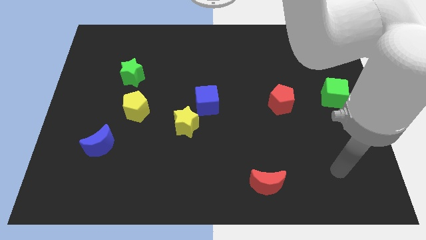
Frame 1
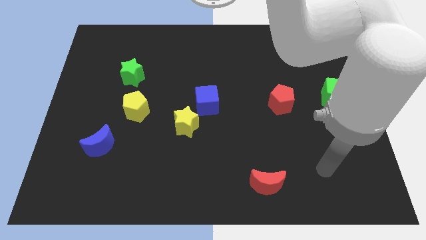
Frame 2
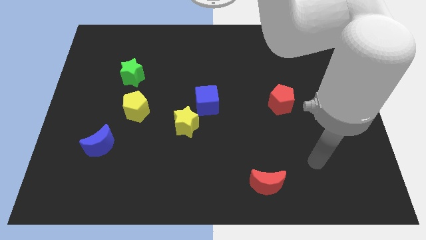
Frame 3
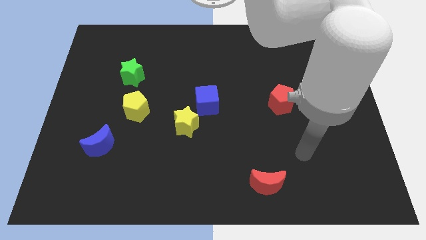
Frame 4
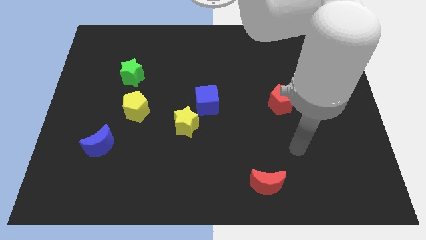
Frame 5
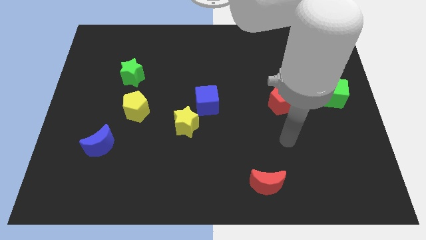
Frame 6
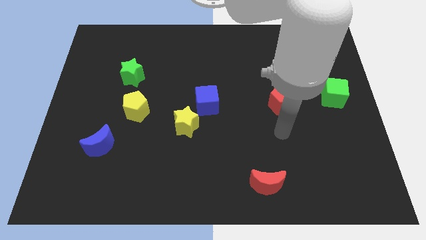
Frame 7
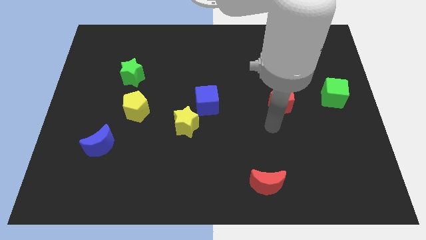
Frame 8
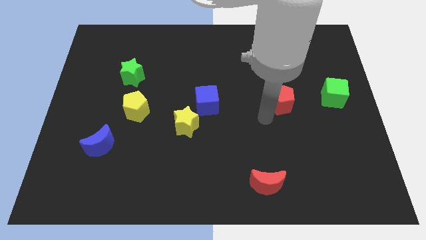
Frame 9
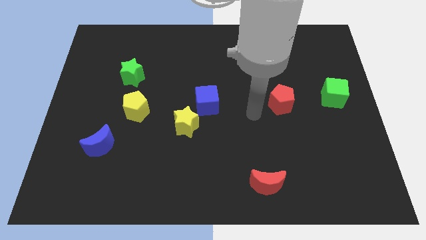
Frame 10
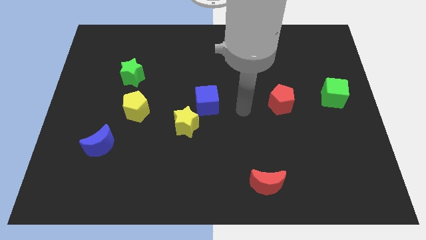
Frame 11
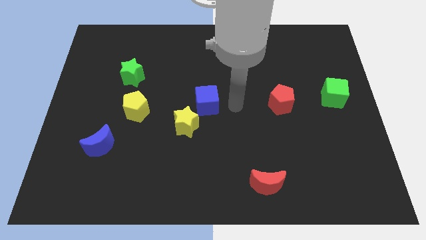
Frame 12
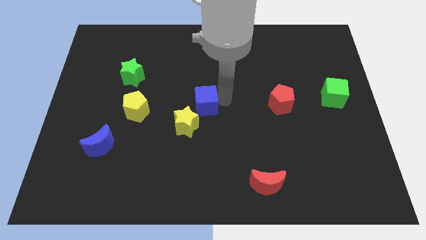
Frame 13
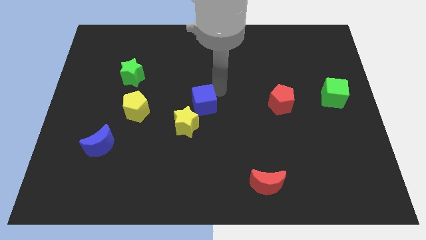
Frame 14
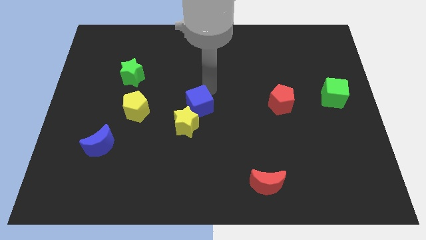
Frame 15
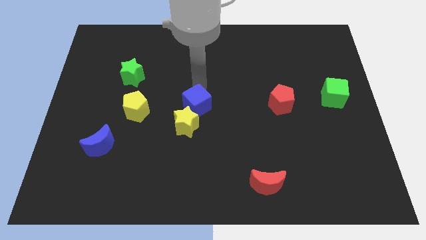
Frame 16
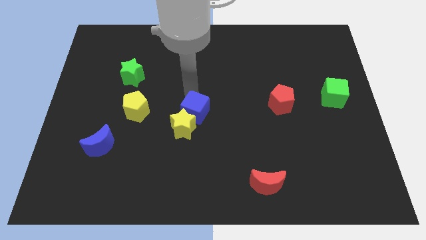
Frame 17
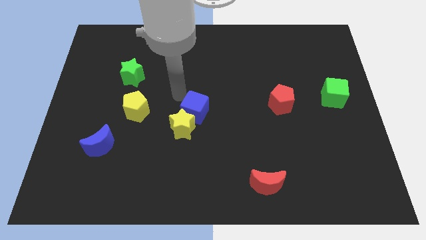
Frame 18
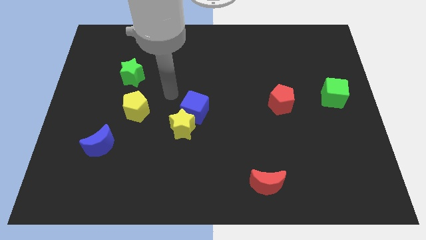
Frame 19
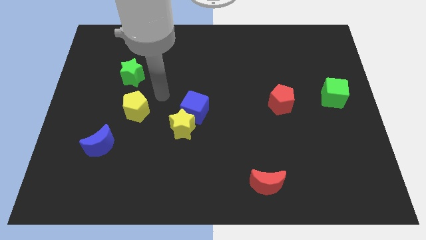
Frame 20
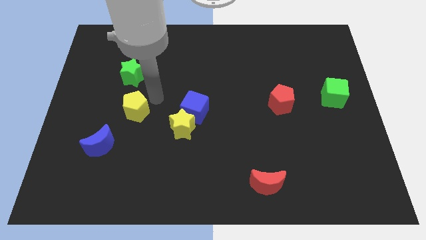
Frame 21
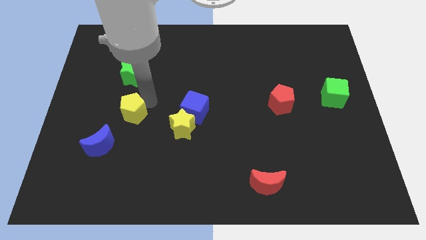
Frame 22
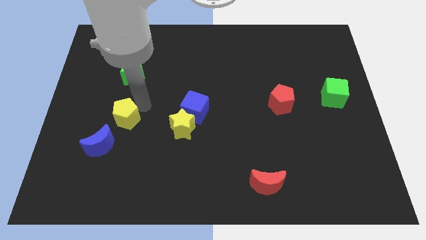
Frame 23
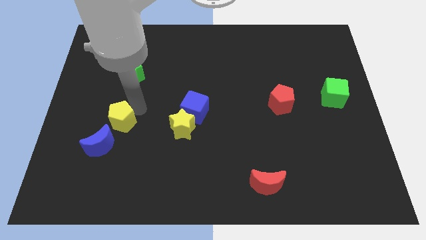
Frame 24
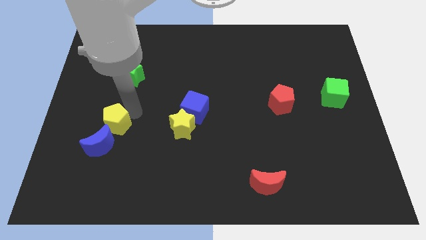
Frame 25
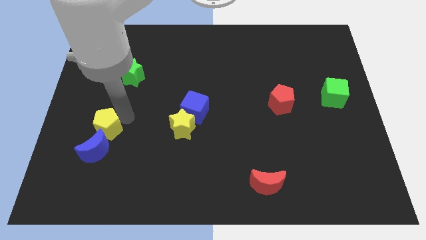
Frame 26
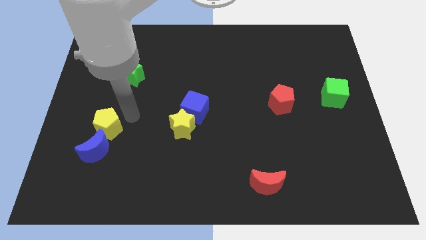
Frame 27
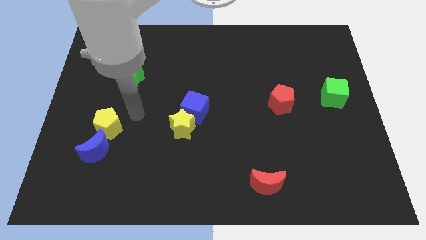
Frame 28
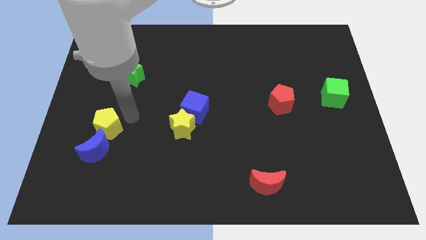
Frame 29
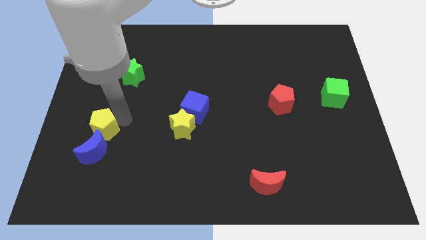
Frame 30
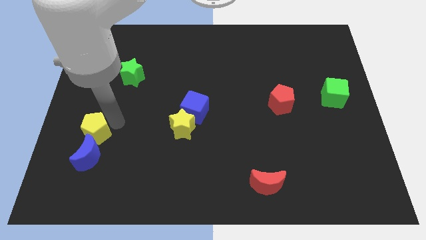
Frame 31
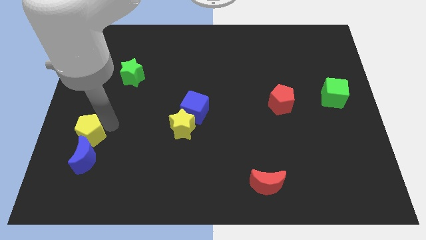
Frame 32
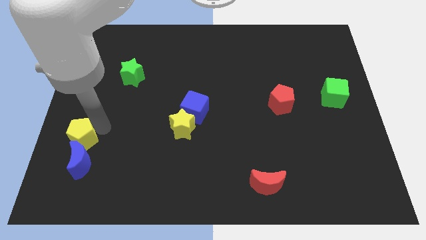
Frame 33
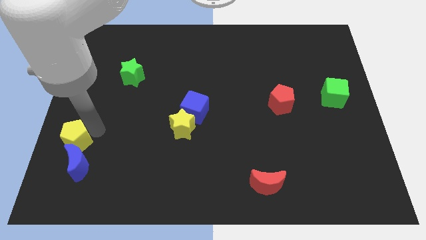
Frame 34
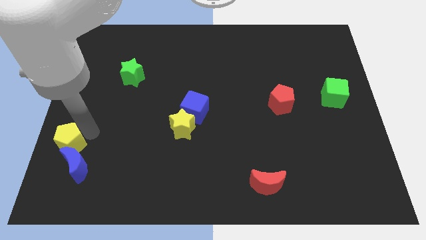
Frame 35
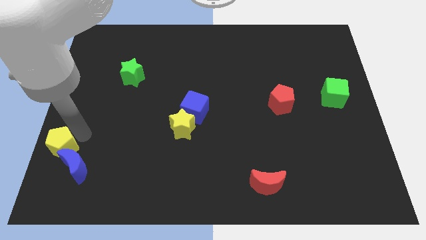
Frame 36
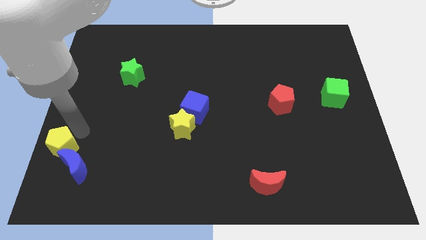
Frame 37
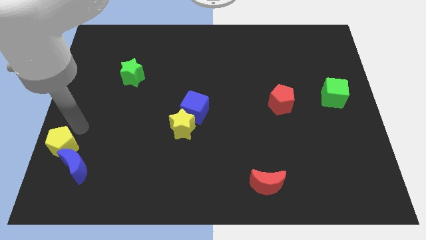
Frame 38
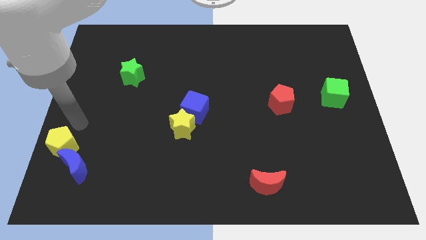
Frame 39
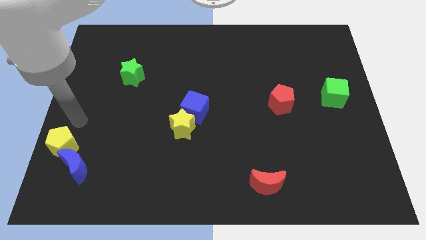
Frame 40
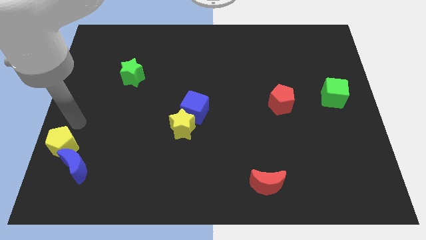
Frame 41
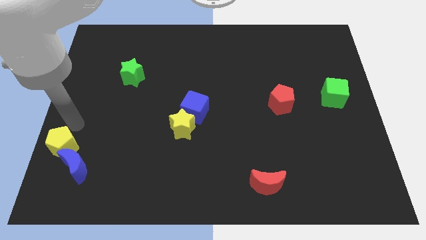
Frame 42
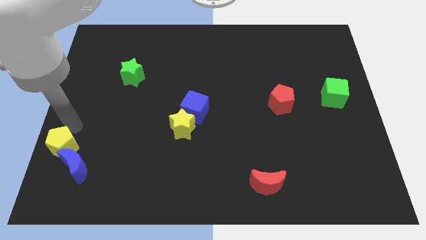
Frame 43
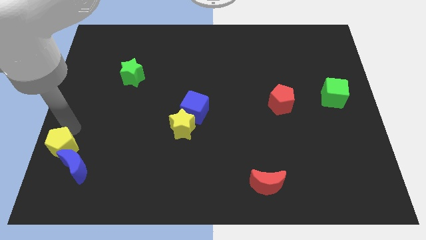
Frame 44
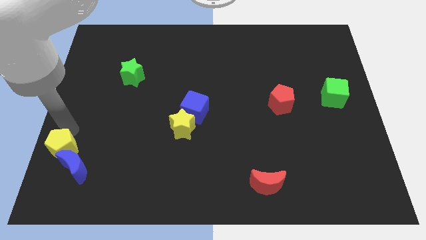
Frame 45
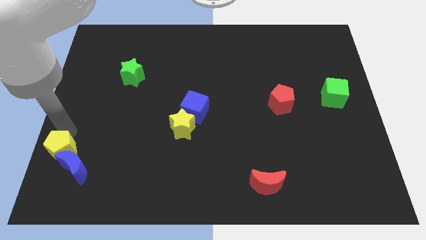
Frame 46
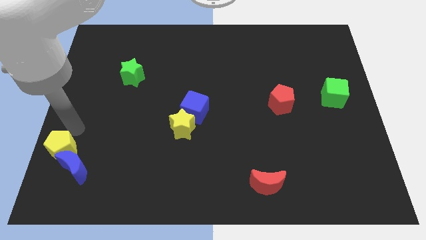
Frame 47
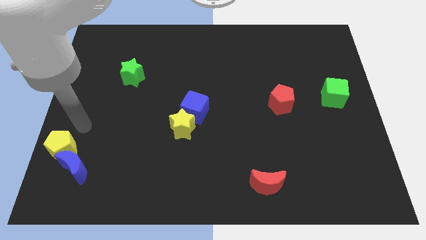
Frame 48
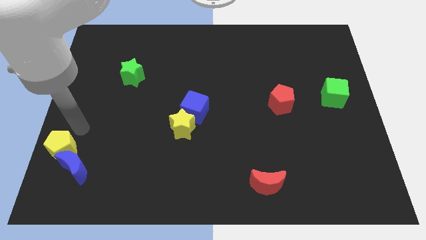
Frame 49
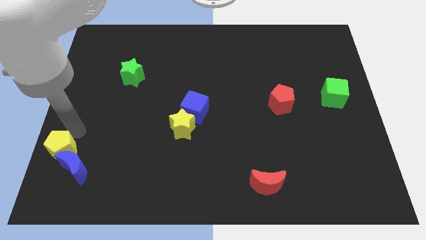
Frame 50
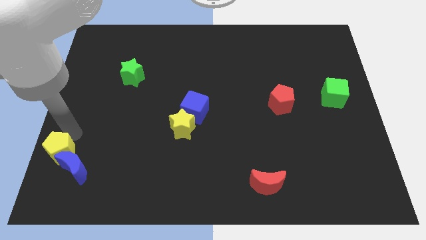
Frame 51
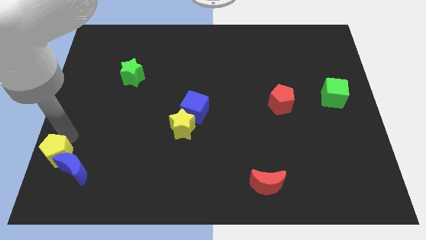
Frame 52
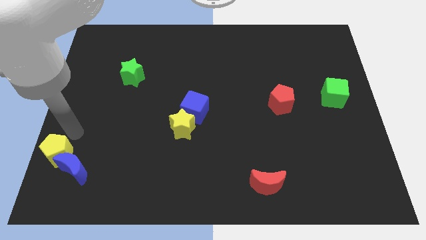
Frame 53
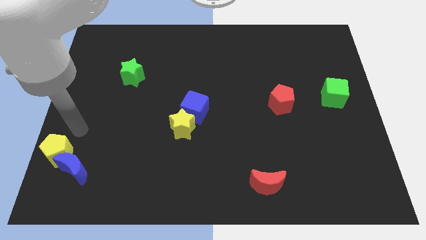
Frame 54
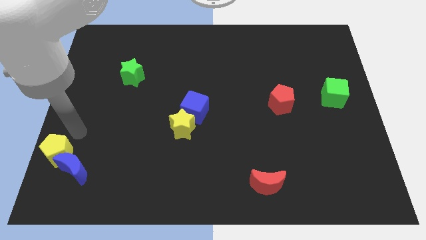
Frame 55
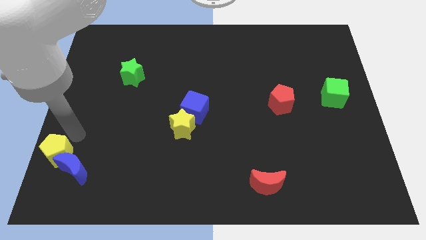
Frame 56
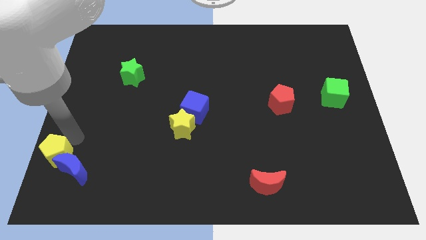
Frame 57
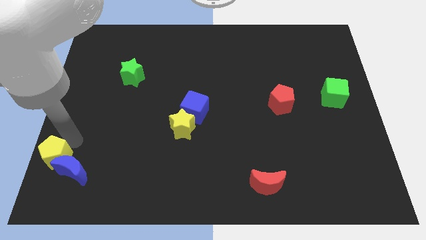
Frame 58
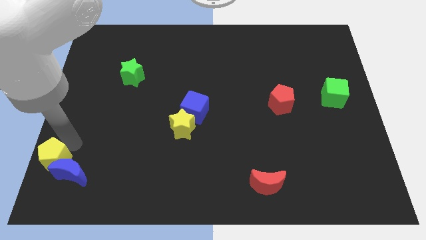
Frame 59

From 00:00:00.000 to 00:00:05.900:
push the yellow pentagon to the lower left corner

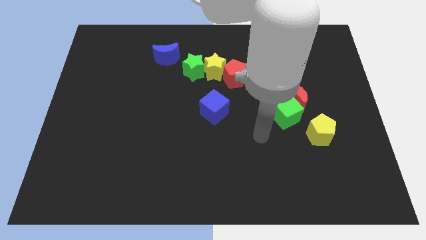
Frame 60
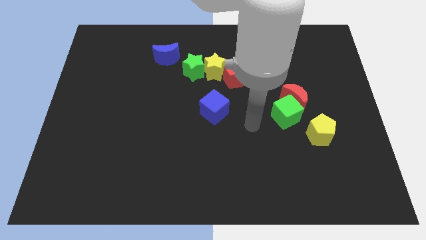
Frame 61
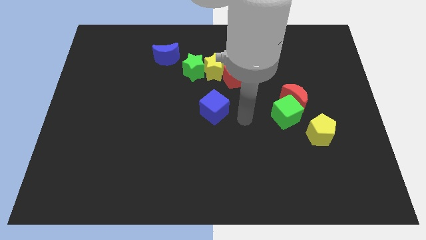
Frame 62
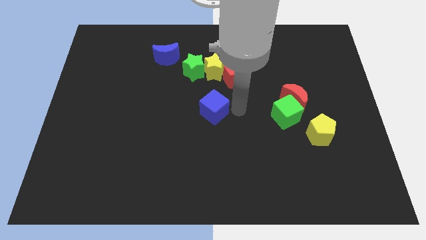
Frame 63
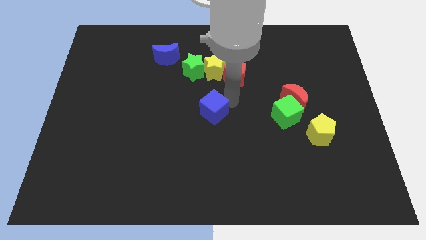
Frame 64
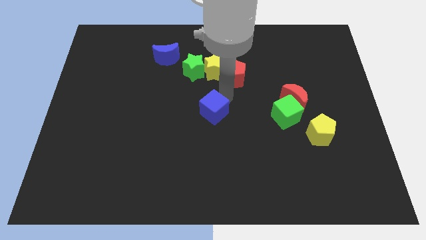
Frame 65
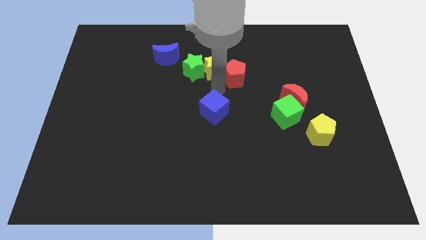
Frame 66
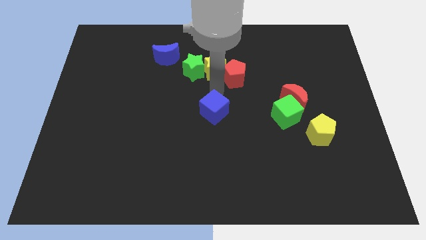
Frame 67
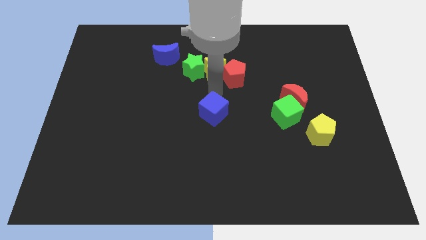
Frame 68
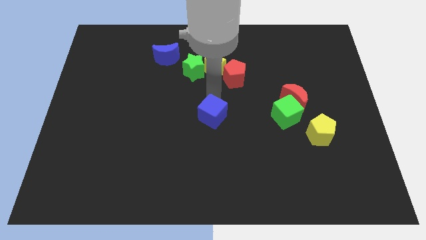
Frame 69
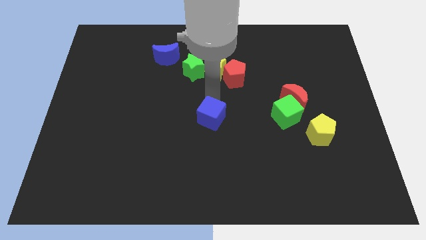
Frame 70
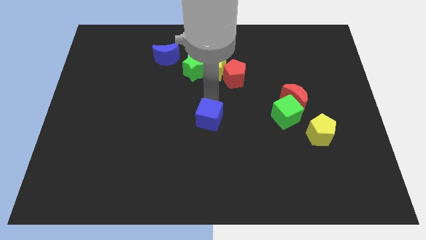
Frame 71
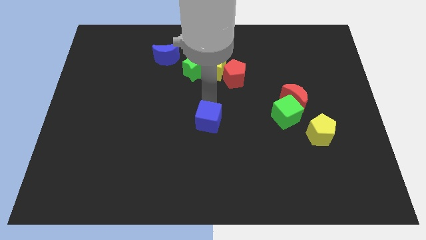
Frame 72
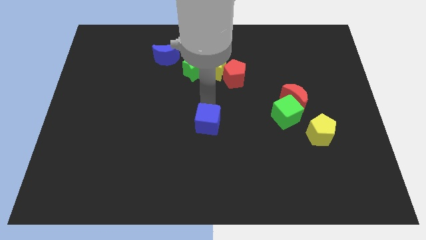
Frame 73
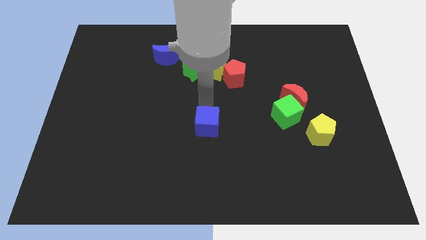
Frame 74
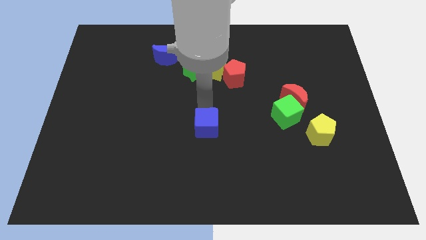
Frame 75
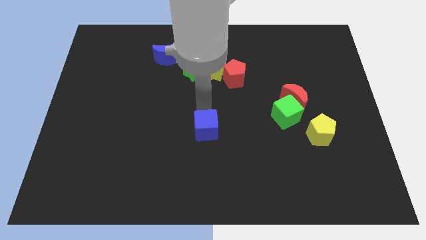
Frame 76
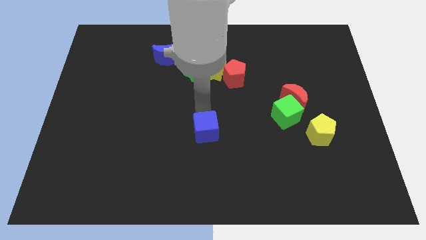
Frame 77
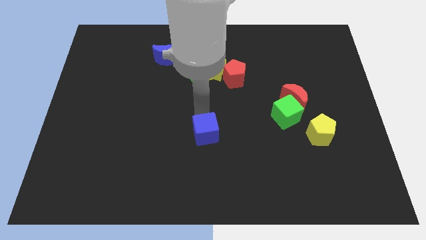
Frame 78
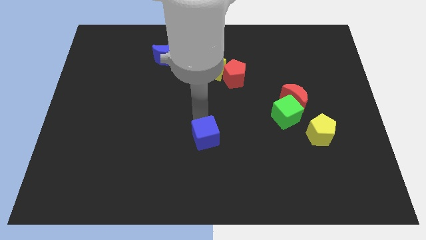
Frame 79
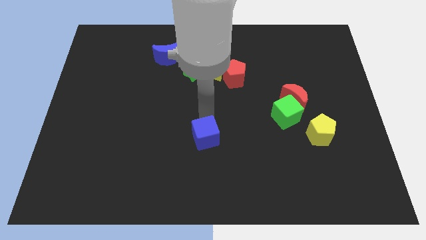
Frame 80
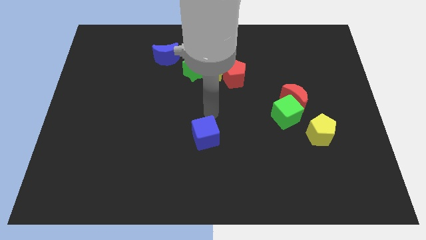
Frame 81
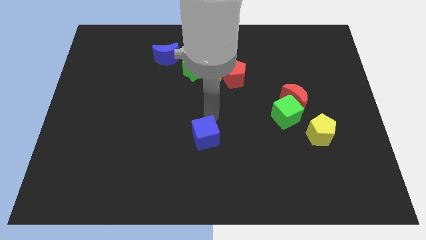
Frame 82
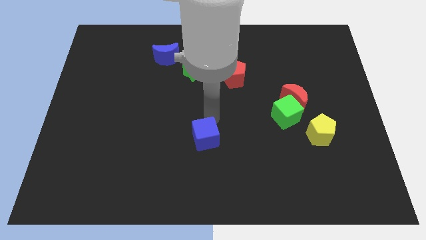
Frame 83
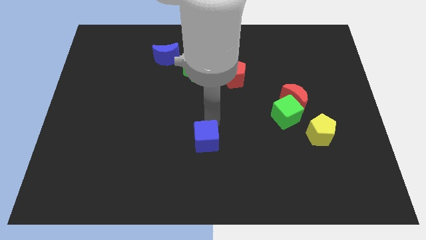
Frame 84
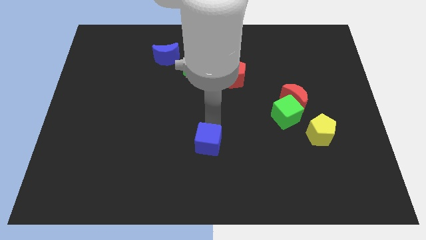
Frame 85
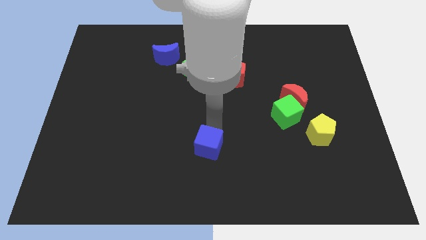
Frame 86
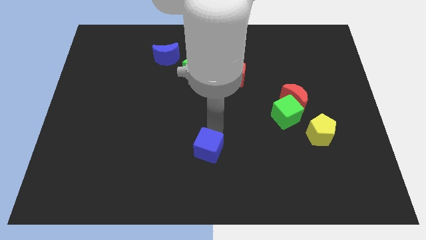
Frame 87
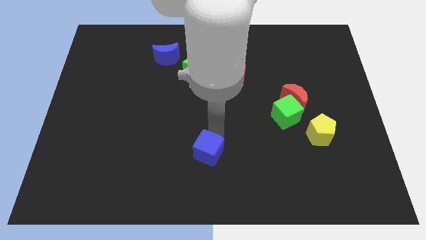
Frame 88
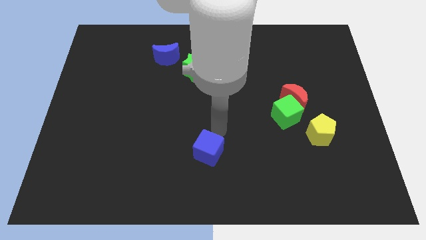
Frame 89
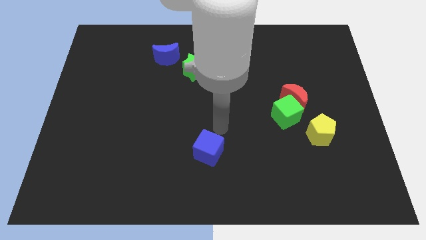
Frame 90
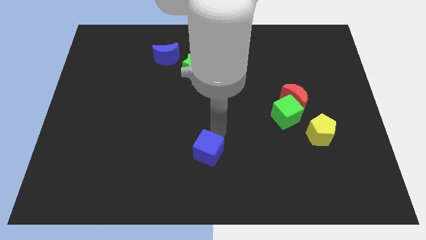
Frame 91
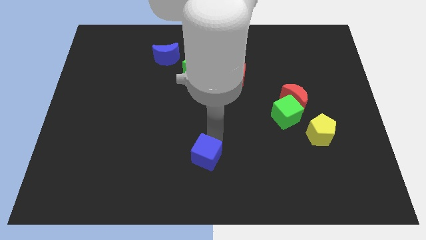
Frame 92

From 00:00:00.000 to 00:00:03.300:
push the blue cube to the bottom
